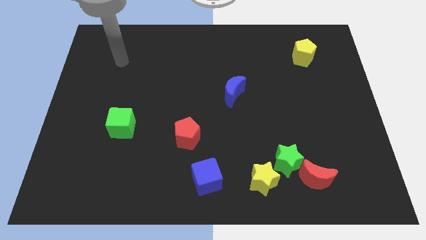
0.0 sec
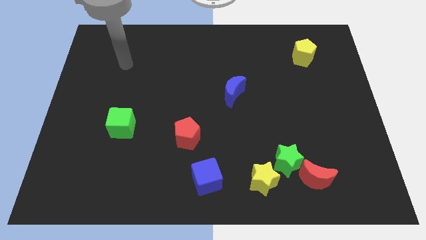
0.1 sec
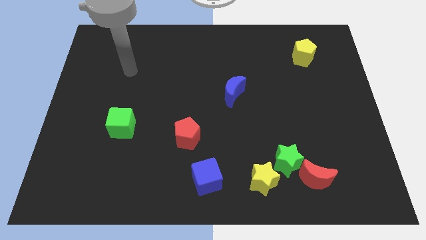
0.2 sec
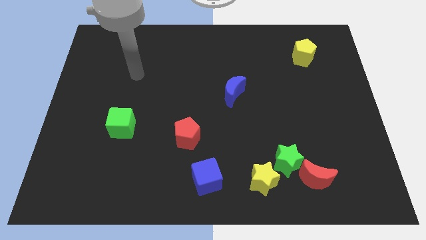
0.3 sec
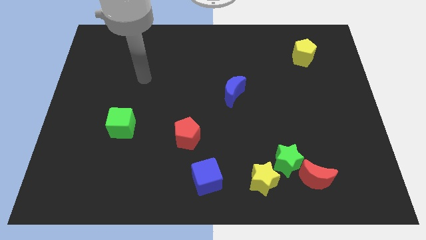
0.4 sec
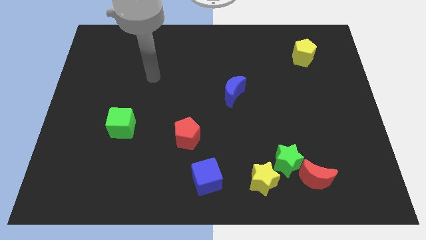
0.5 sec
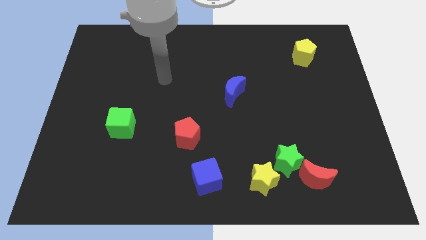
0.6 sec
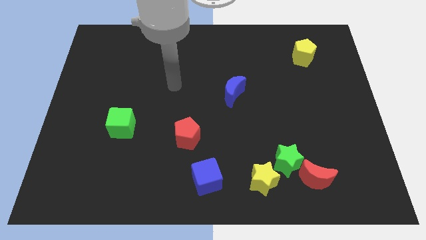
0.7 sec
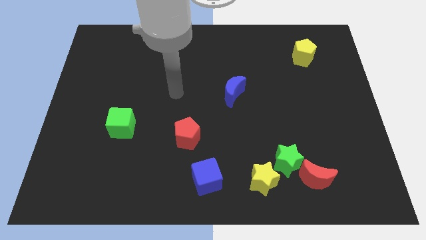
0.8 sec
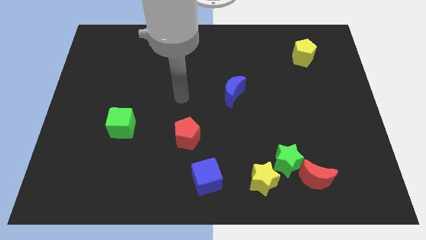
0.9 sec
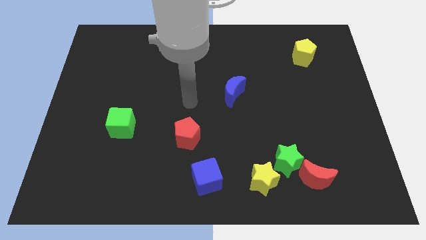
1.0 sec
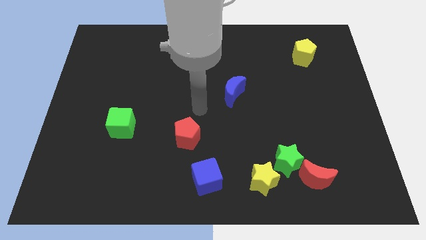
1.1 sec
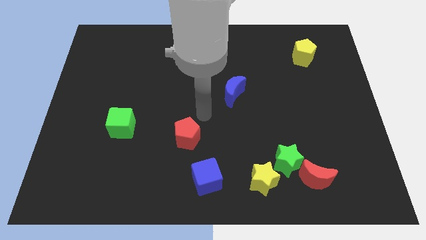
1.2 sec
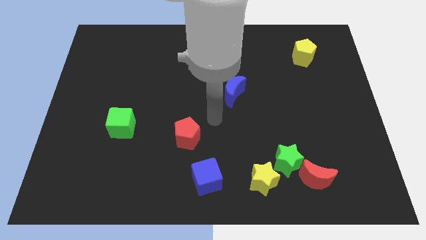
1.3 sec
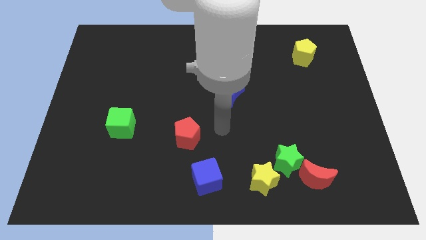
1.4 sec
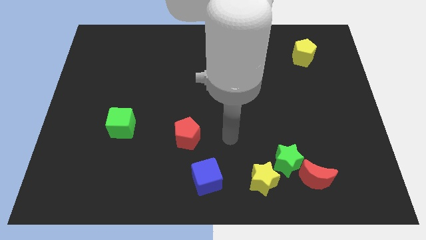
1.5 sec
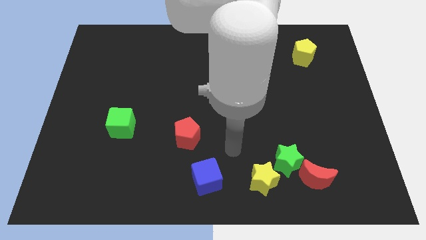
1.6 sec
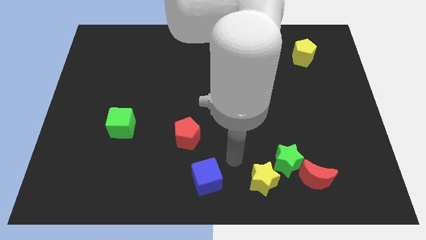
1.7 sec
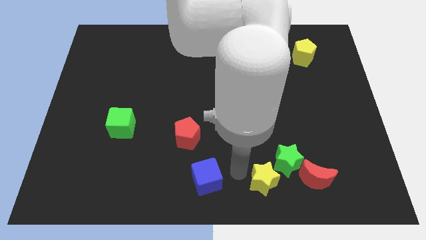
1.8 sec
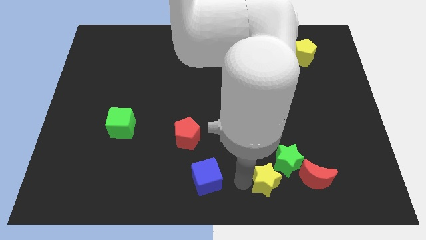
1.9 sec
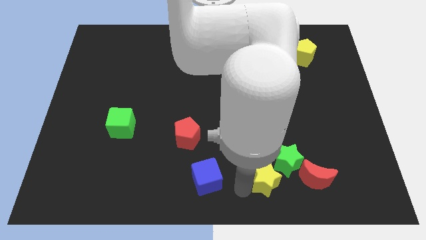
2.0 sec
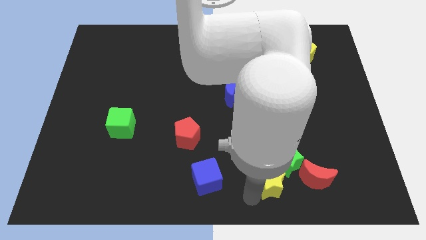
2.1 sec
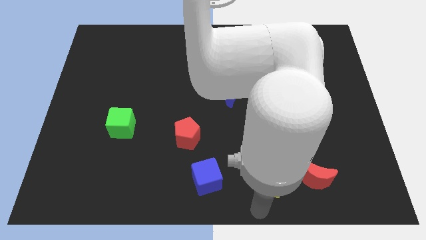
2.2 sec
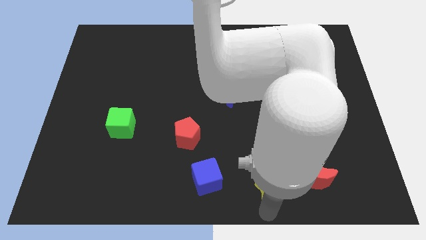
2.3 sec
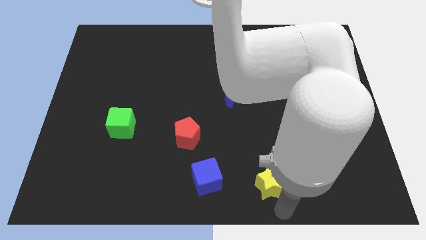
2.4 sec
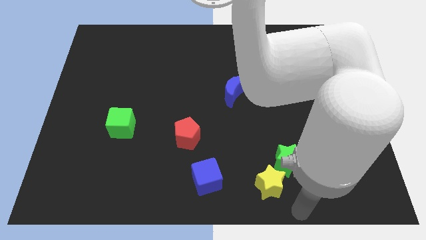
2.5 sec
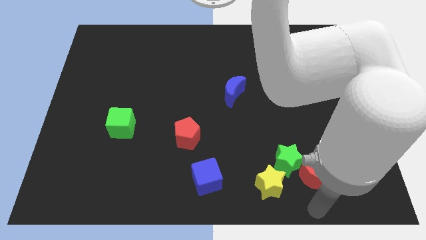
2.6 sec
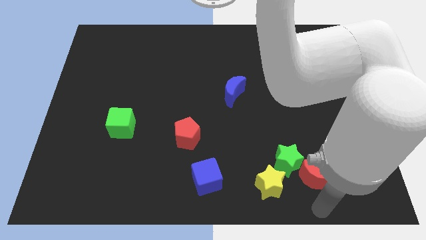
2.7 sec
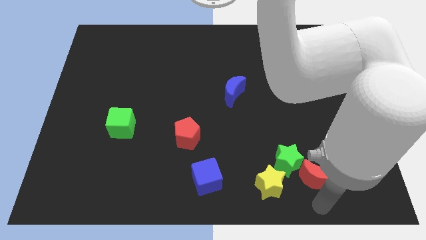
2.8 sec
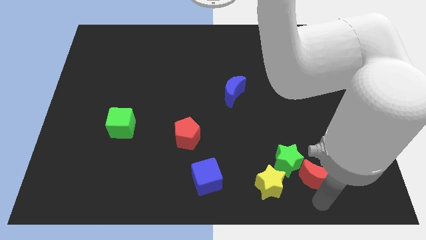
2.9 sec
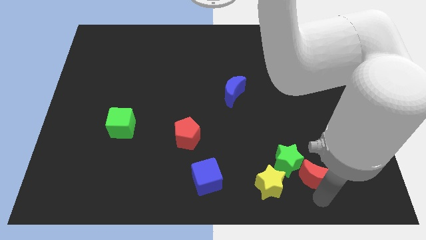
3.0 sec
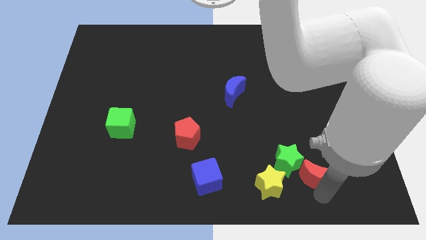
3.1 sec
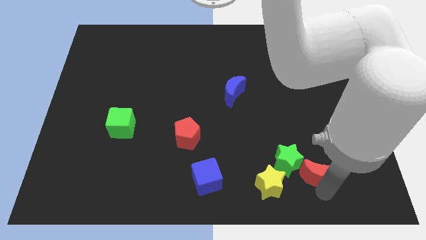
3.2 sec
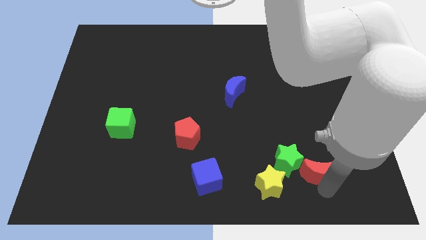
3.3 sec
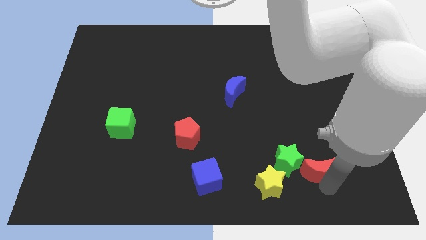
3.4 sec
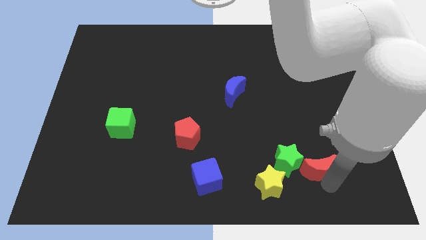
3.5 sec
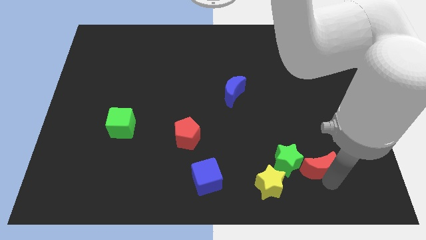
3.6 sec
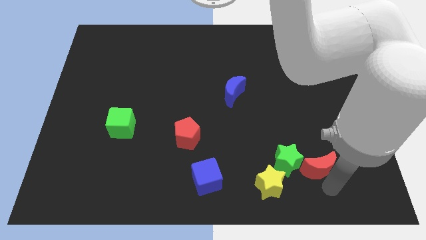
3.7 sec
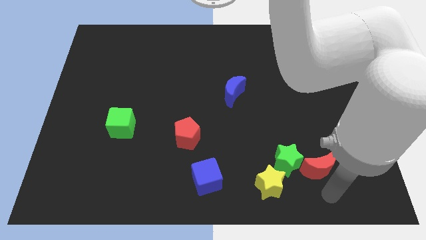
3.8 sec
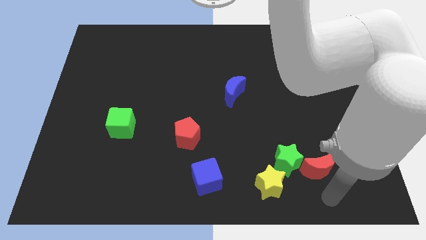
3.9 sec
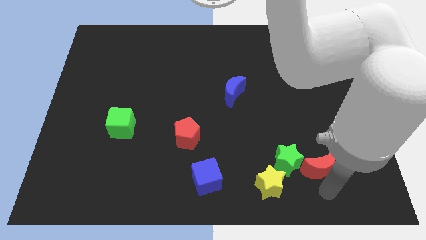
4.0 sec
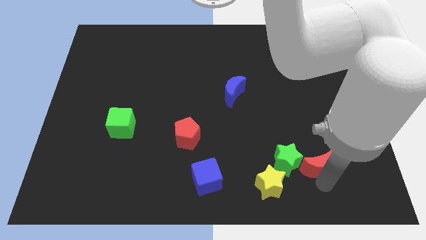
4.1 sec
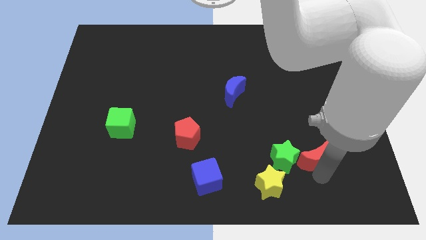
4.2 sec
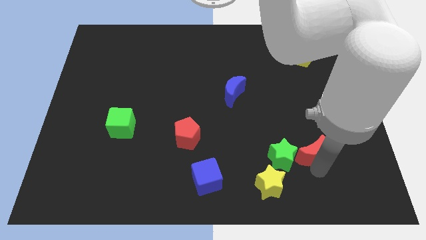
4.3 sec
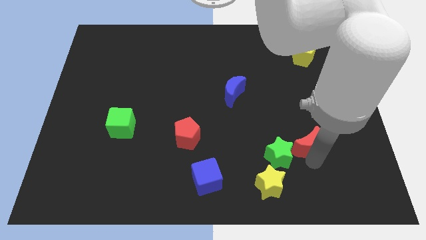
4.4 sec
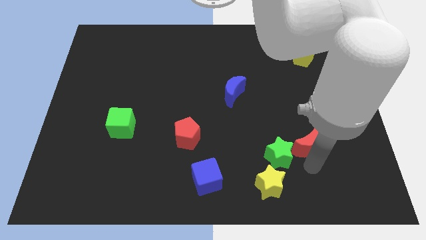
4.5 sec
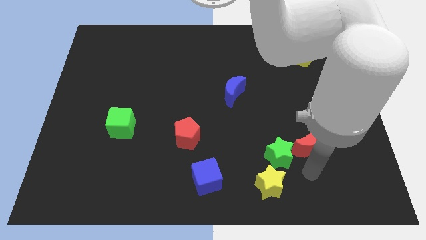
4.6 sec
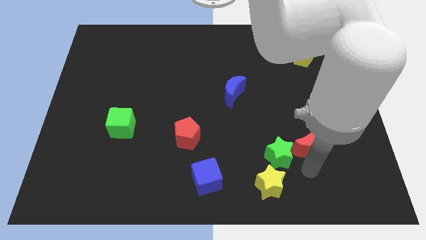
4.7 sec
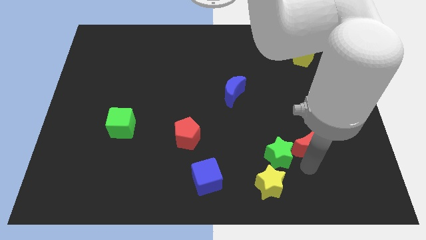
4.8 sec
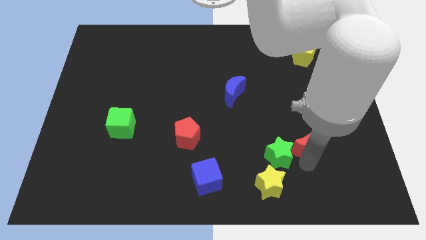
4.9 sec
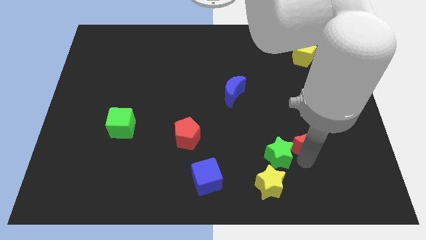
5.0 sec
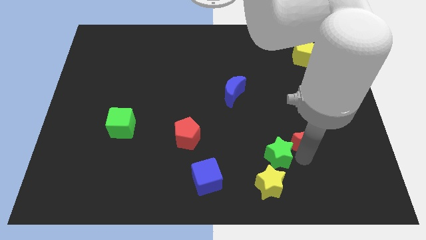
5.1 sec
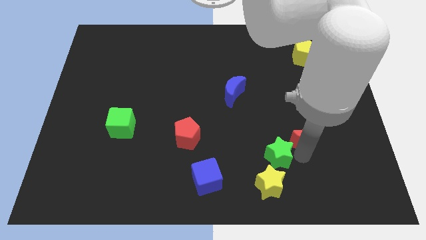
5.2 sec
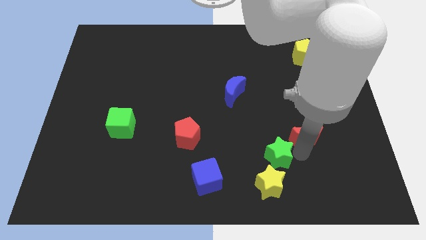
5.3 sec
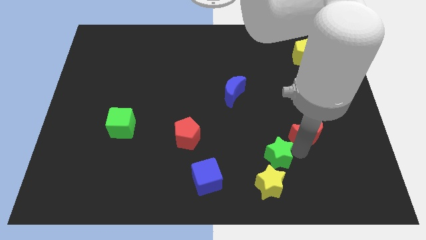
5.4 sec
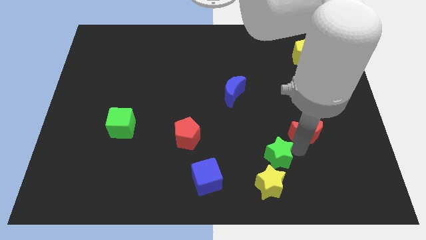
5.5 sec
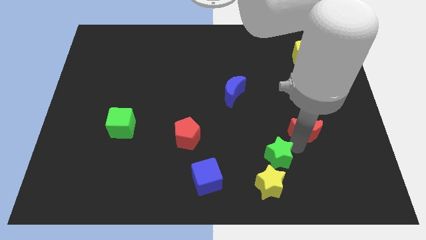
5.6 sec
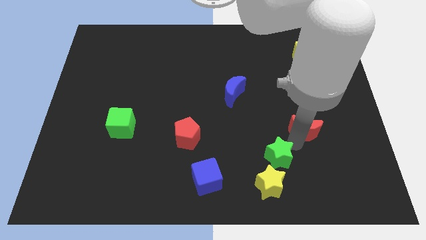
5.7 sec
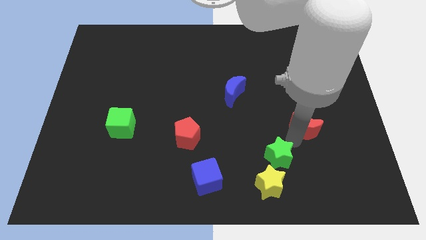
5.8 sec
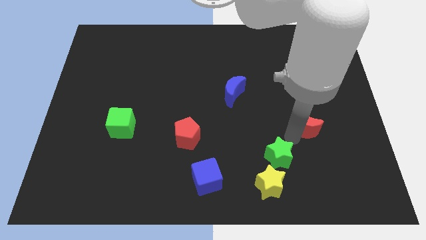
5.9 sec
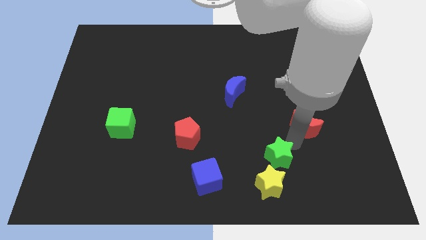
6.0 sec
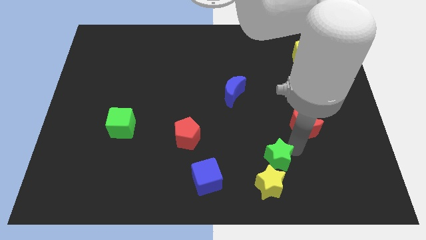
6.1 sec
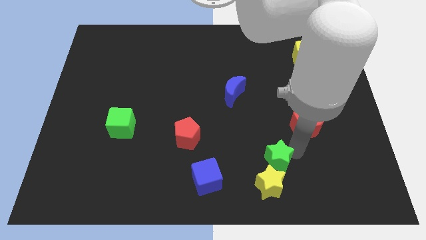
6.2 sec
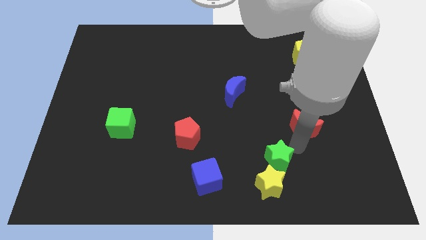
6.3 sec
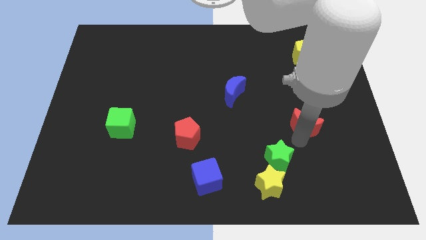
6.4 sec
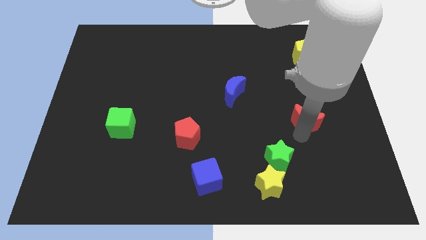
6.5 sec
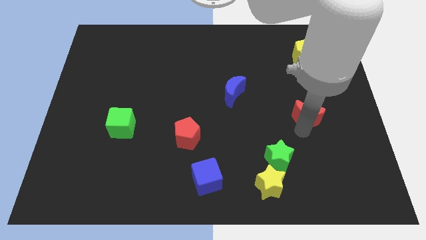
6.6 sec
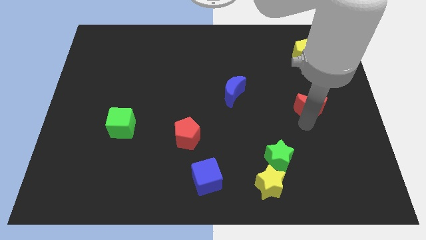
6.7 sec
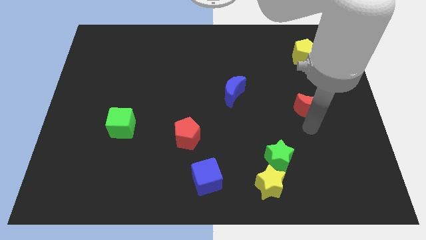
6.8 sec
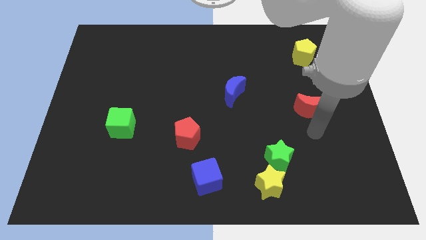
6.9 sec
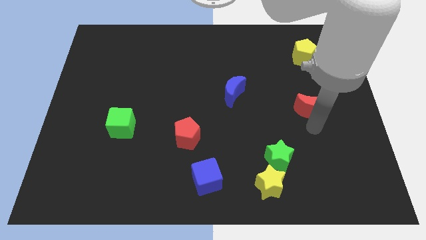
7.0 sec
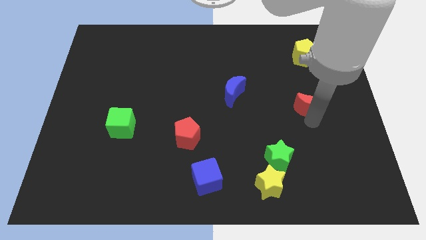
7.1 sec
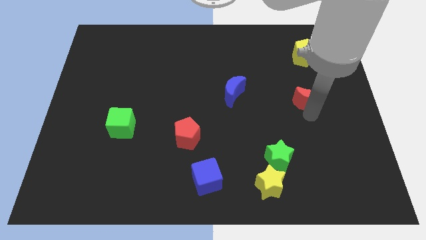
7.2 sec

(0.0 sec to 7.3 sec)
move the red moon upwards

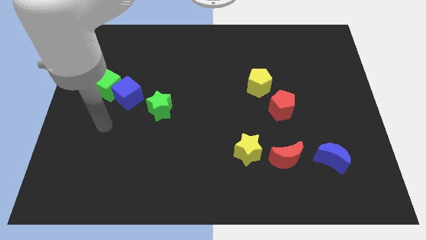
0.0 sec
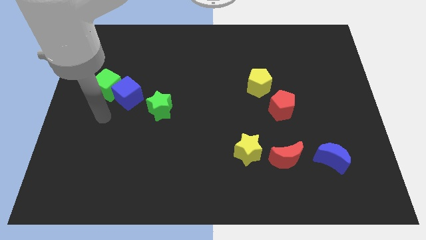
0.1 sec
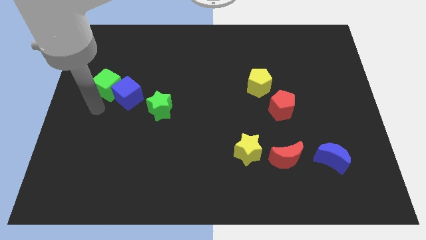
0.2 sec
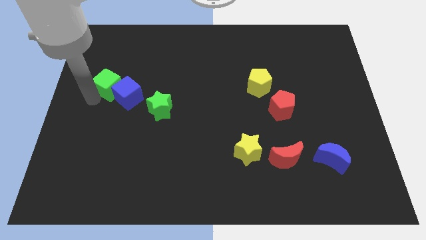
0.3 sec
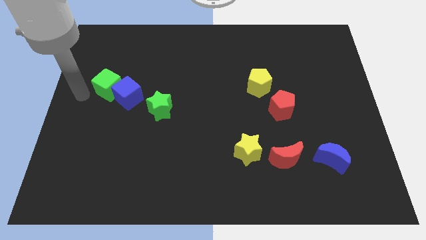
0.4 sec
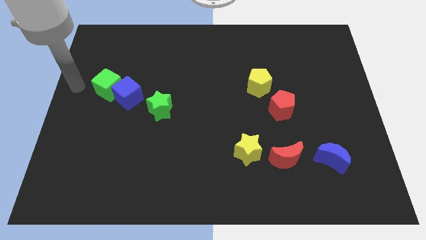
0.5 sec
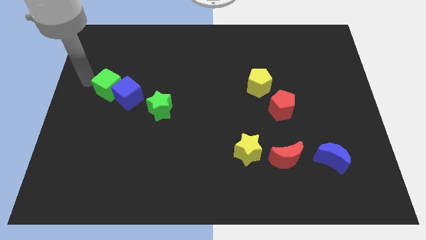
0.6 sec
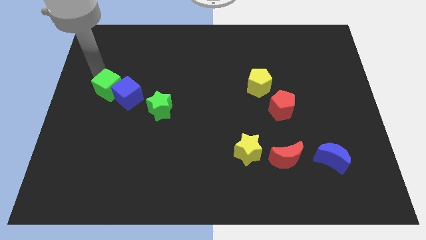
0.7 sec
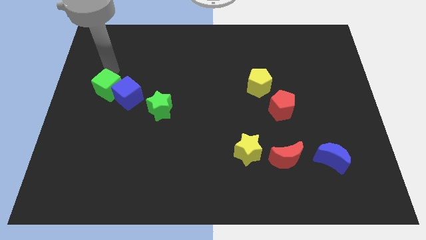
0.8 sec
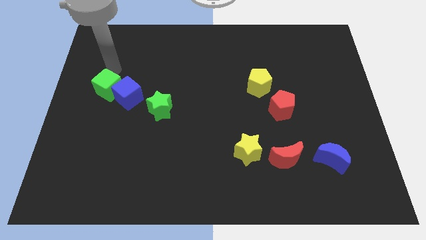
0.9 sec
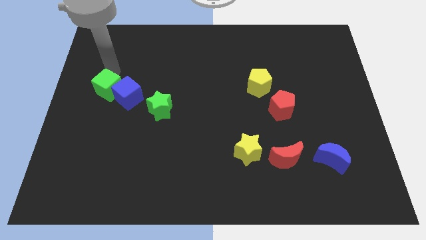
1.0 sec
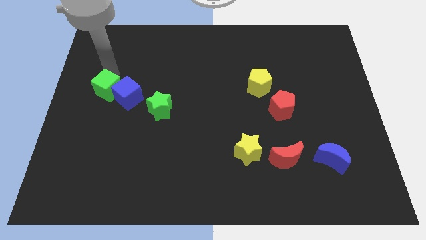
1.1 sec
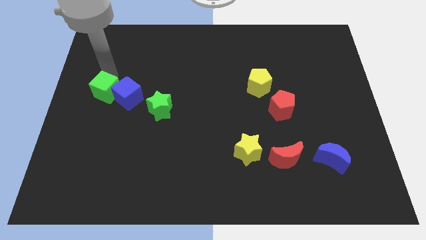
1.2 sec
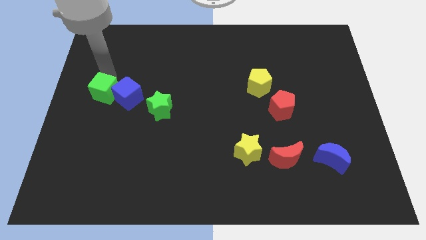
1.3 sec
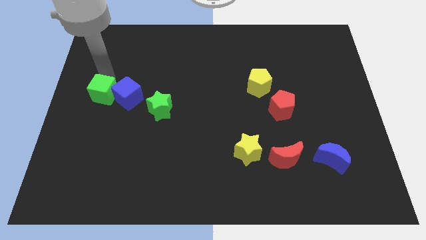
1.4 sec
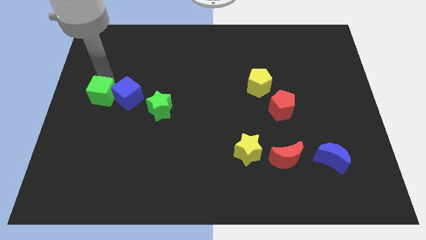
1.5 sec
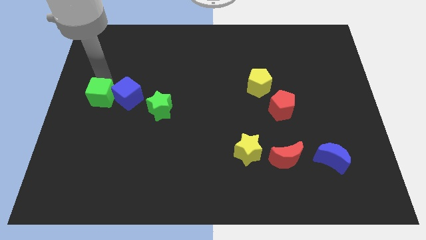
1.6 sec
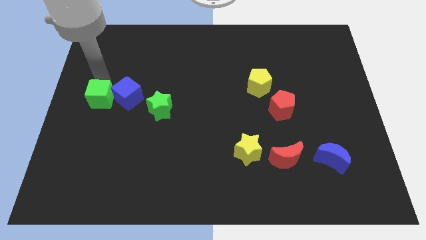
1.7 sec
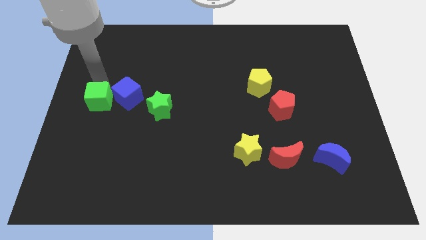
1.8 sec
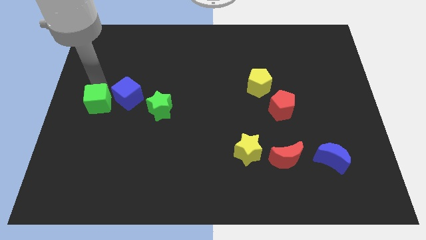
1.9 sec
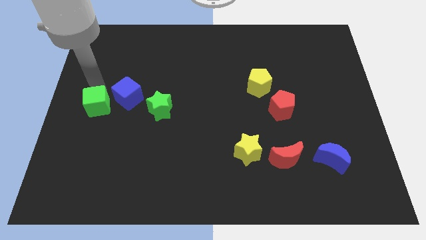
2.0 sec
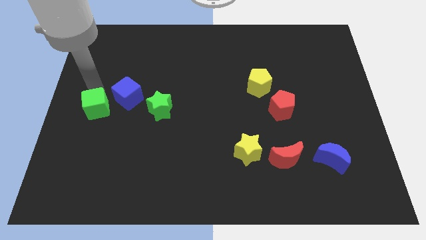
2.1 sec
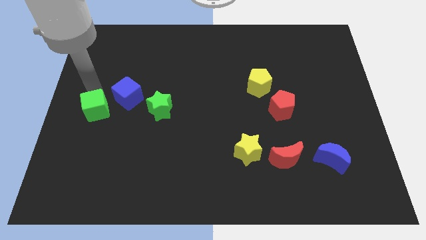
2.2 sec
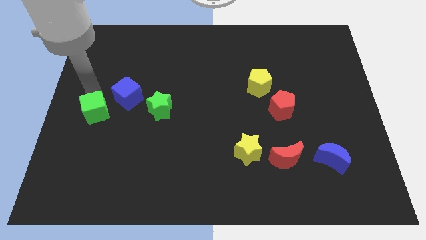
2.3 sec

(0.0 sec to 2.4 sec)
slide the green cube downwards slightly
